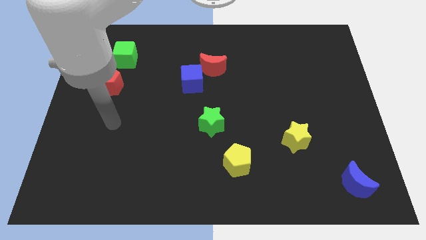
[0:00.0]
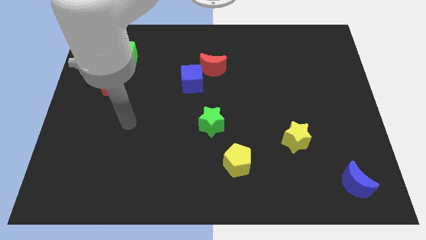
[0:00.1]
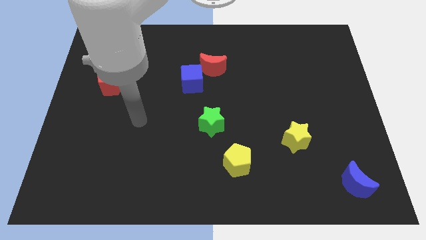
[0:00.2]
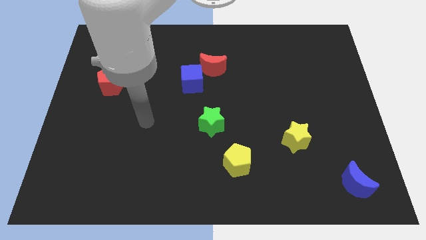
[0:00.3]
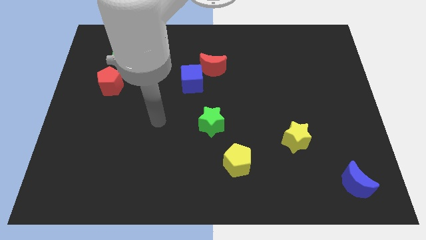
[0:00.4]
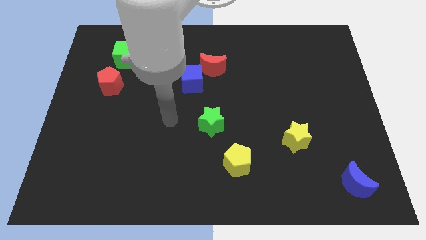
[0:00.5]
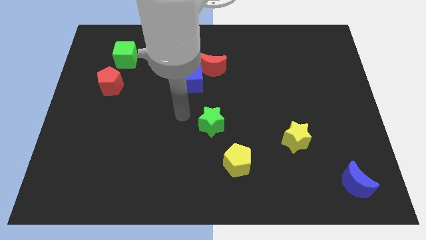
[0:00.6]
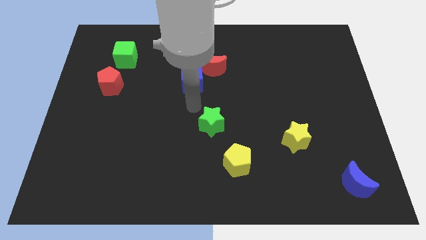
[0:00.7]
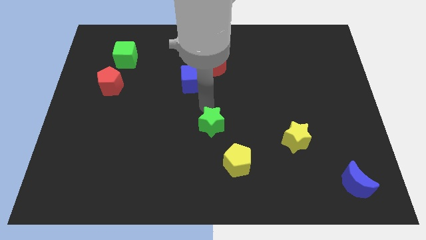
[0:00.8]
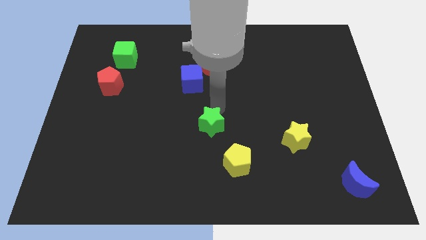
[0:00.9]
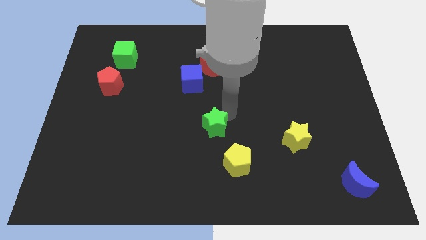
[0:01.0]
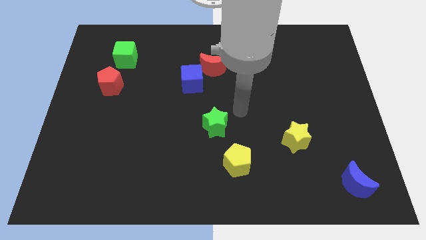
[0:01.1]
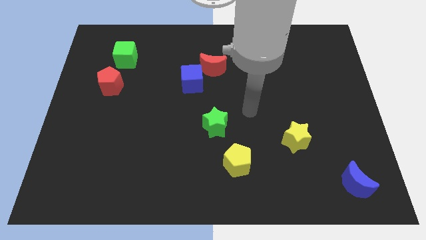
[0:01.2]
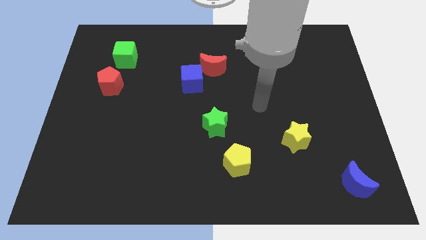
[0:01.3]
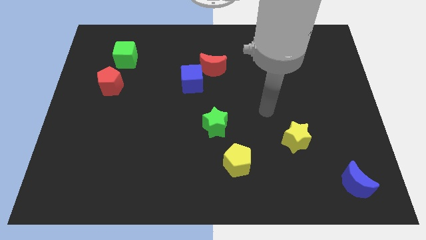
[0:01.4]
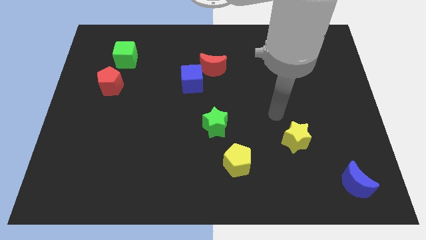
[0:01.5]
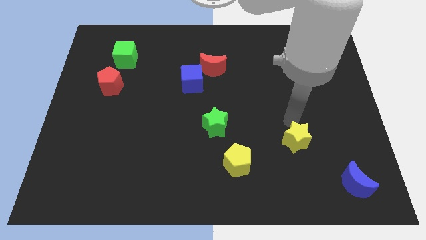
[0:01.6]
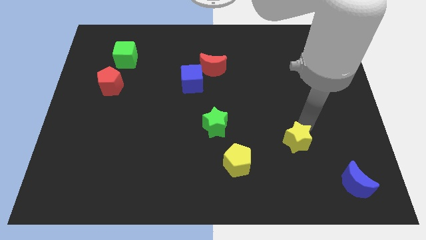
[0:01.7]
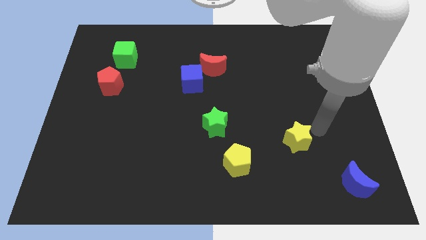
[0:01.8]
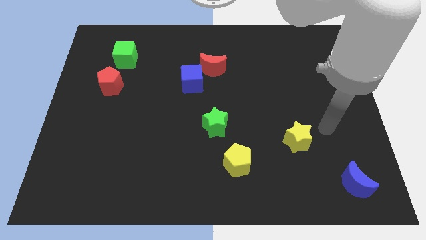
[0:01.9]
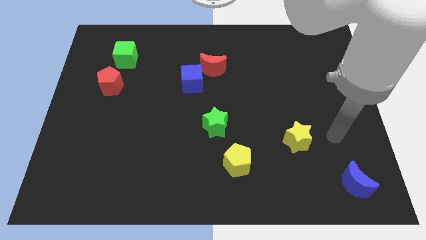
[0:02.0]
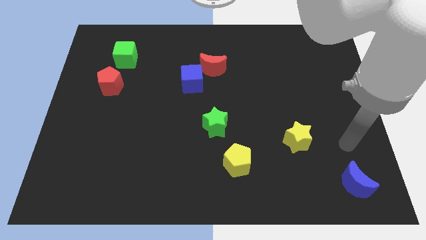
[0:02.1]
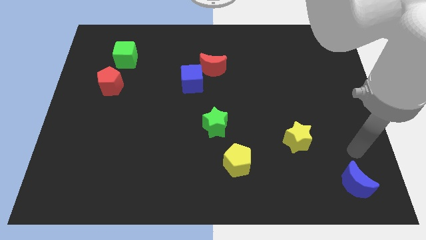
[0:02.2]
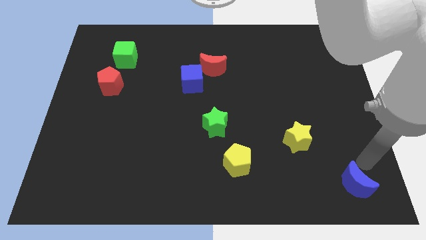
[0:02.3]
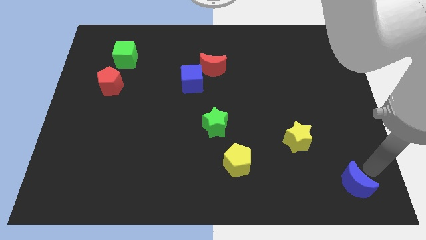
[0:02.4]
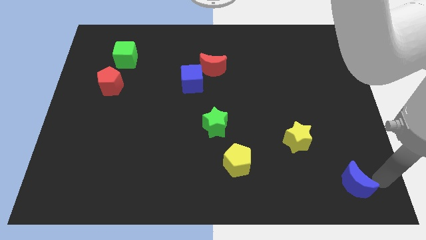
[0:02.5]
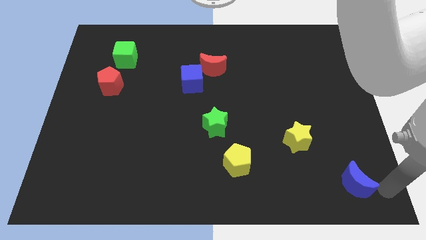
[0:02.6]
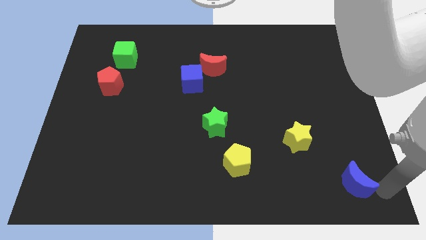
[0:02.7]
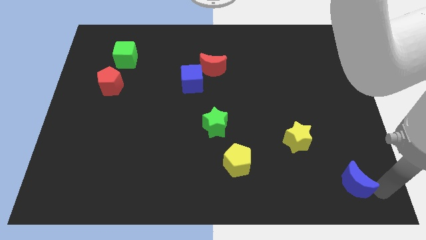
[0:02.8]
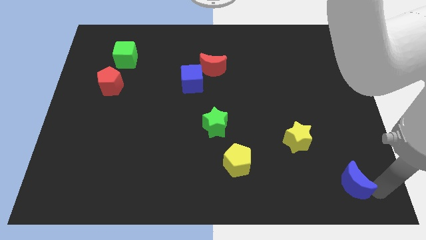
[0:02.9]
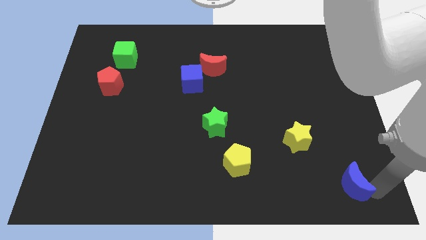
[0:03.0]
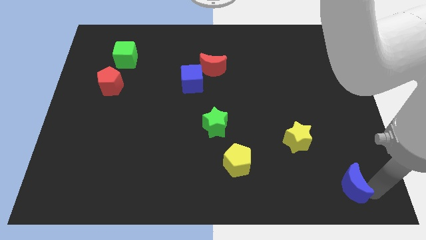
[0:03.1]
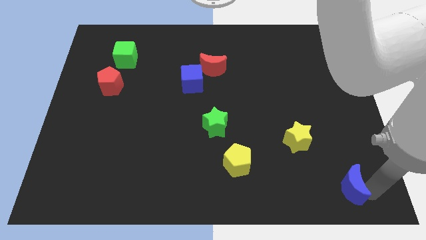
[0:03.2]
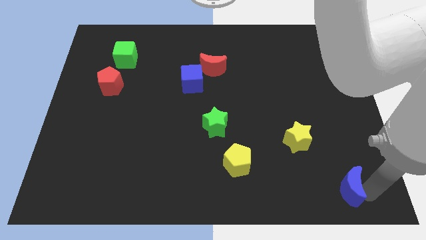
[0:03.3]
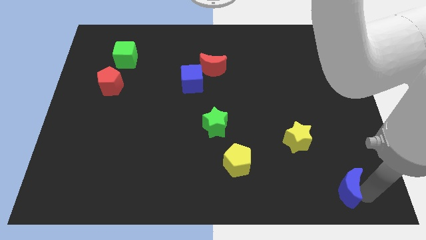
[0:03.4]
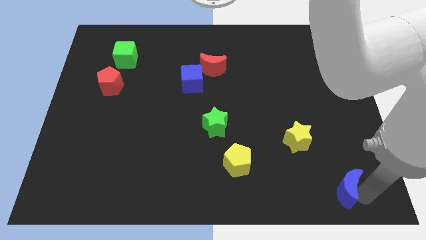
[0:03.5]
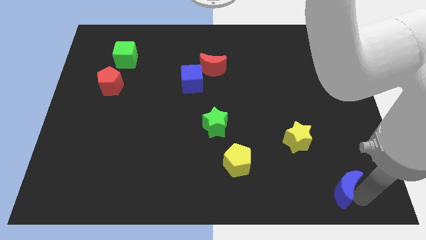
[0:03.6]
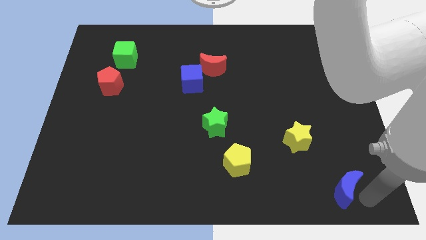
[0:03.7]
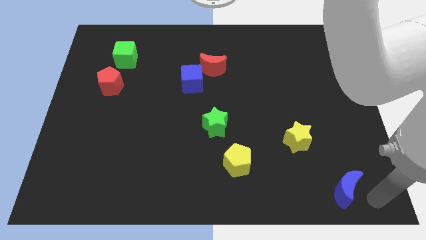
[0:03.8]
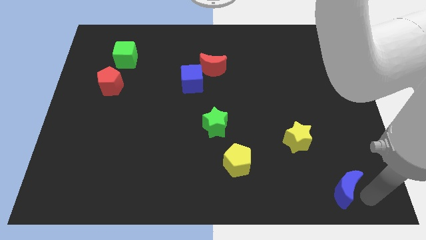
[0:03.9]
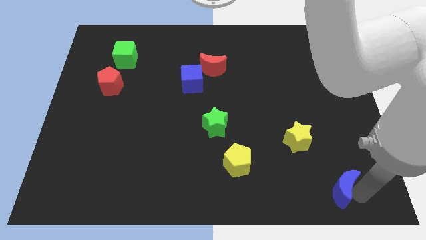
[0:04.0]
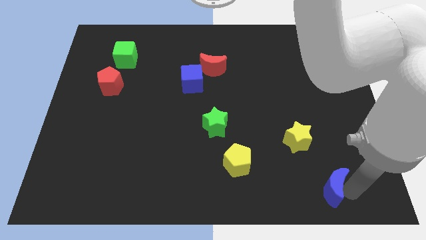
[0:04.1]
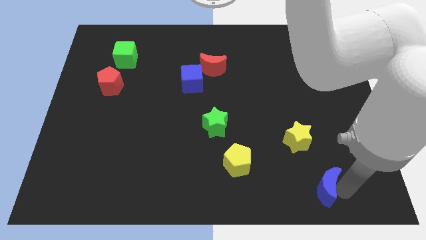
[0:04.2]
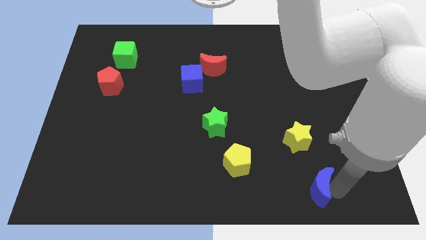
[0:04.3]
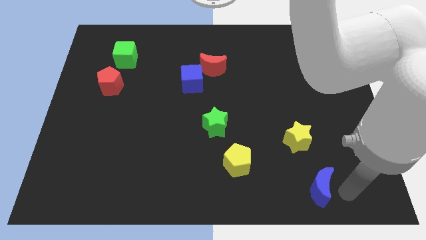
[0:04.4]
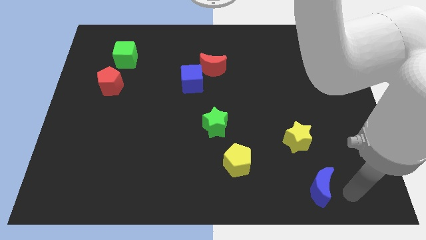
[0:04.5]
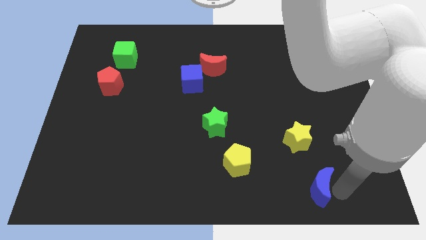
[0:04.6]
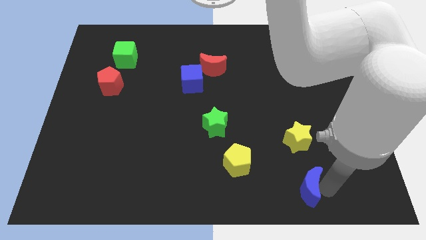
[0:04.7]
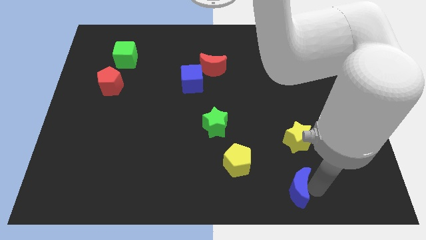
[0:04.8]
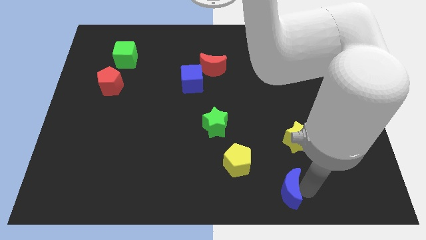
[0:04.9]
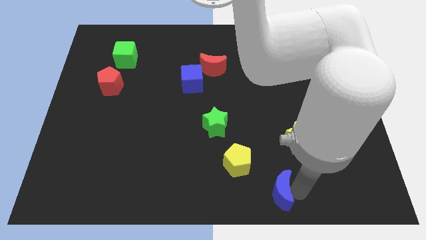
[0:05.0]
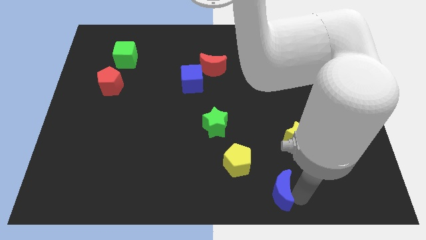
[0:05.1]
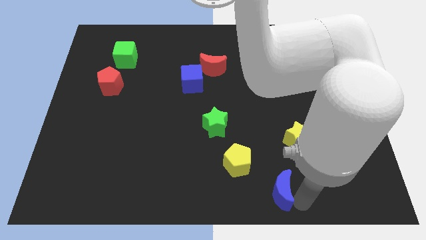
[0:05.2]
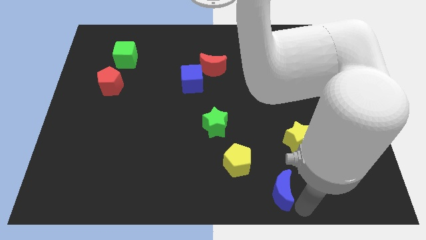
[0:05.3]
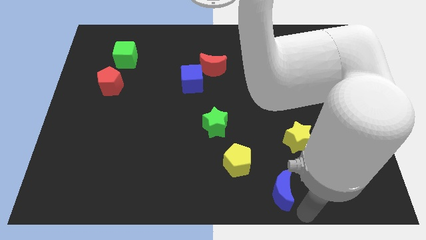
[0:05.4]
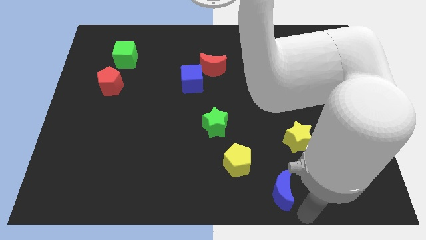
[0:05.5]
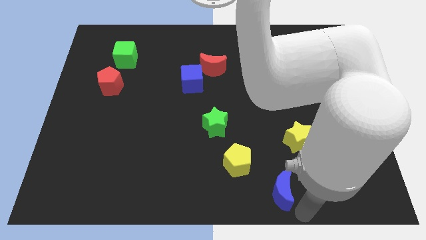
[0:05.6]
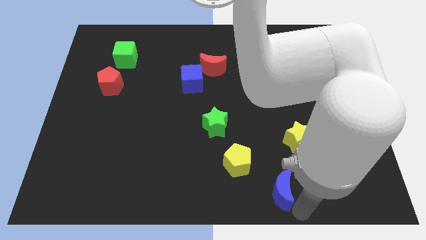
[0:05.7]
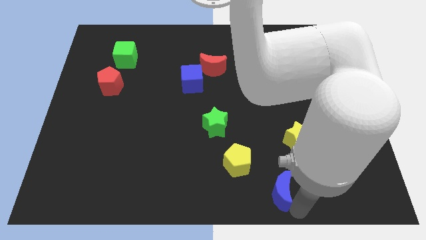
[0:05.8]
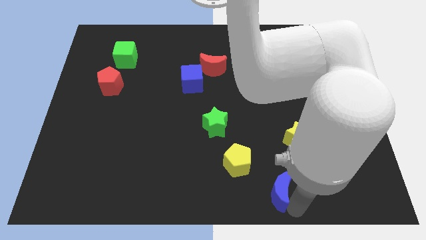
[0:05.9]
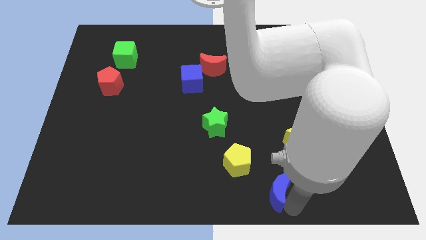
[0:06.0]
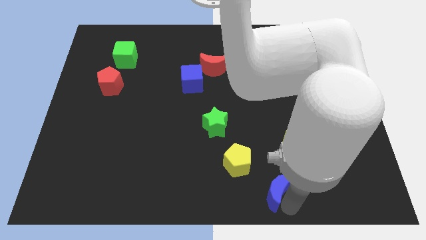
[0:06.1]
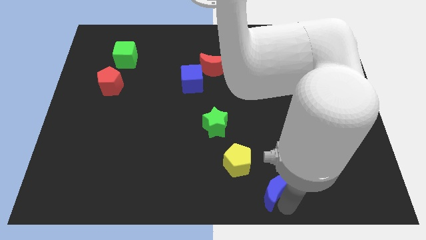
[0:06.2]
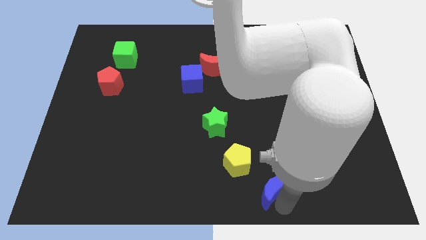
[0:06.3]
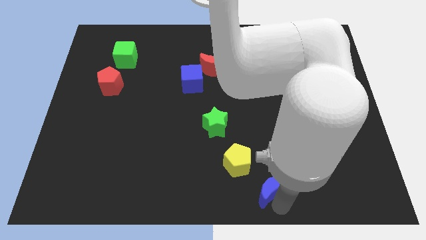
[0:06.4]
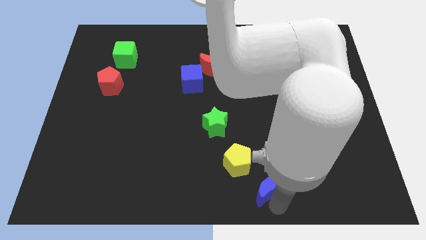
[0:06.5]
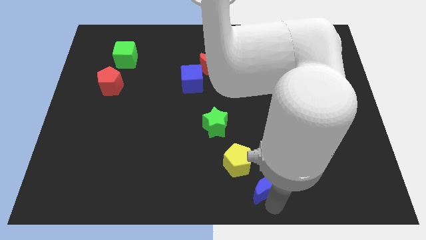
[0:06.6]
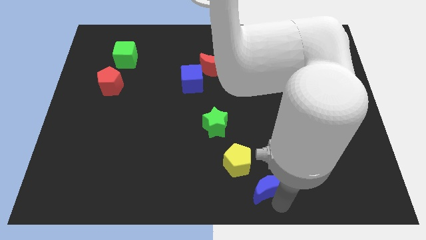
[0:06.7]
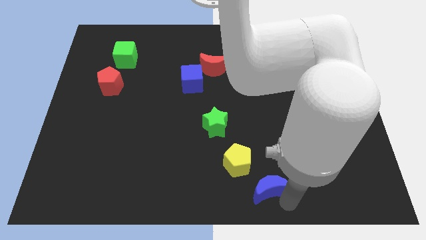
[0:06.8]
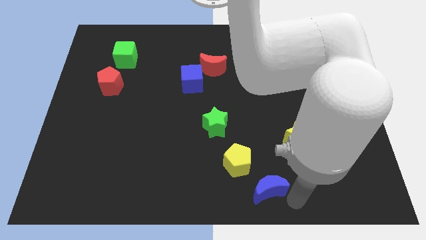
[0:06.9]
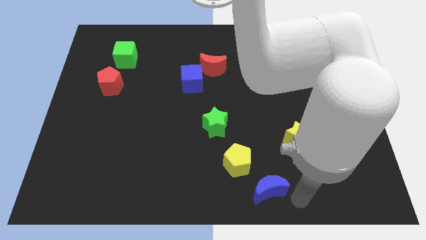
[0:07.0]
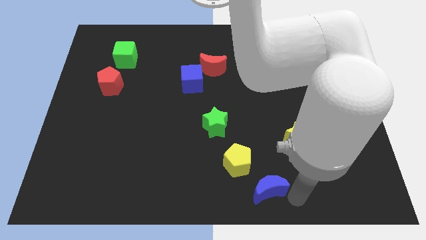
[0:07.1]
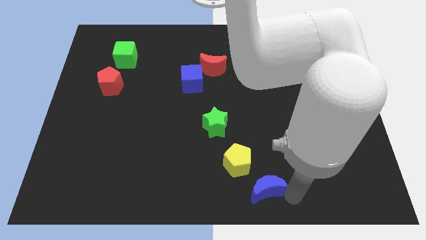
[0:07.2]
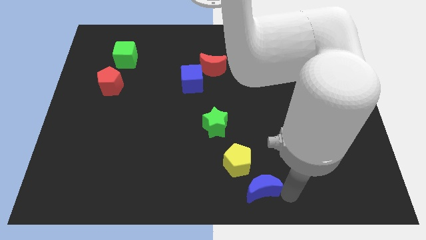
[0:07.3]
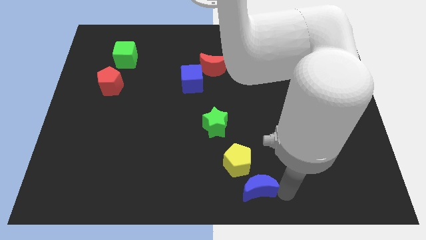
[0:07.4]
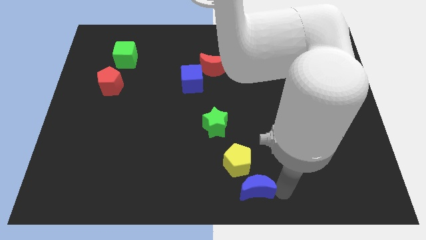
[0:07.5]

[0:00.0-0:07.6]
push the blue moon left

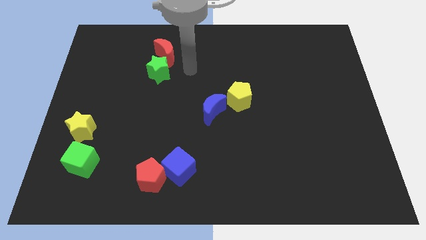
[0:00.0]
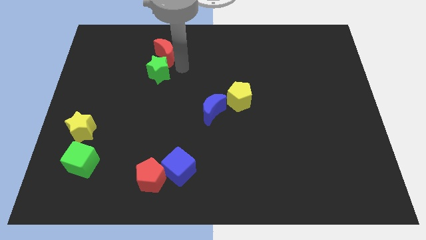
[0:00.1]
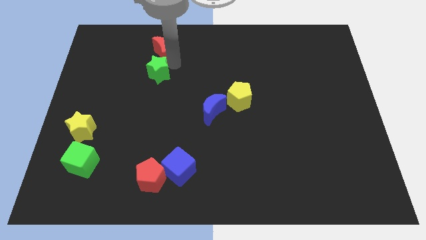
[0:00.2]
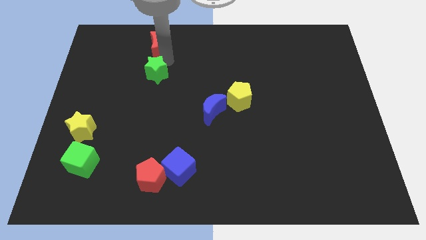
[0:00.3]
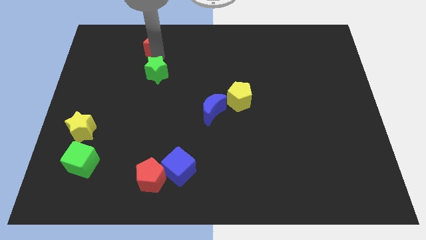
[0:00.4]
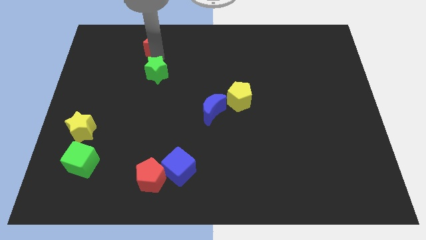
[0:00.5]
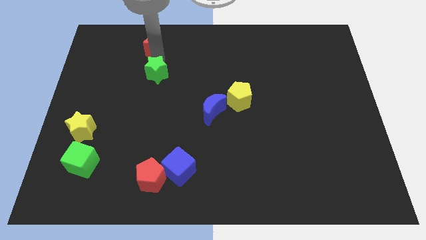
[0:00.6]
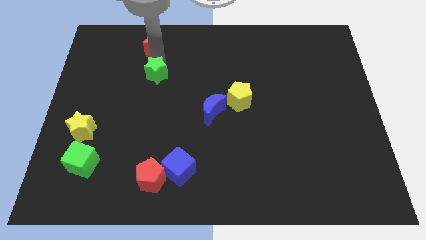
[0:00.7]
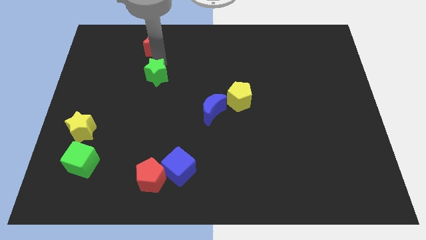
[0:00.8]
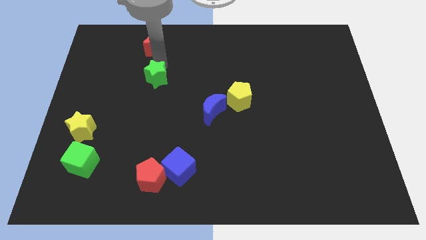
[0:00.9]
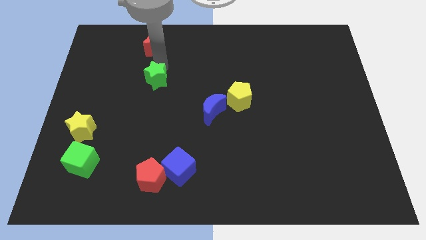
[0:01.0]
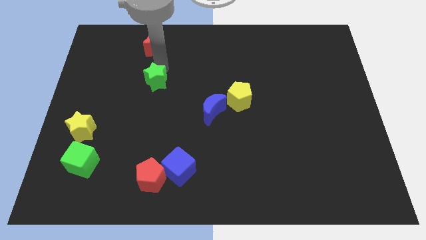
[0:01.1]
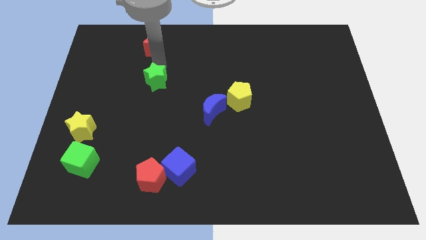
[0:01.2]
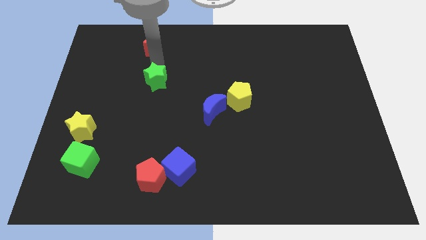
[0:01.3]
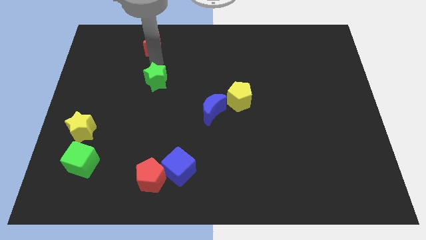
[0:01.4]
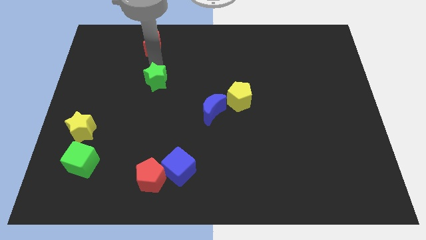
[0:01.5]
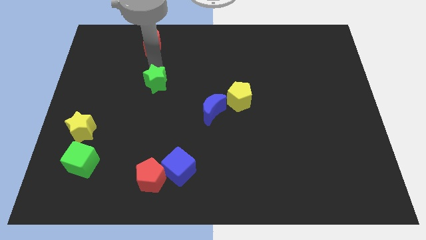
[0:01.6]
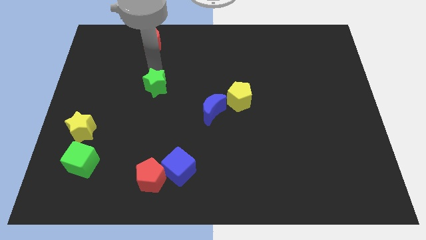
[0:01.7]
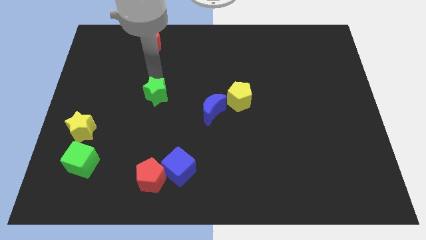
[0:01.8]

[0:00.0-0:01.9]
push the green star a little down
